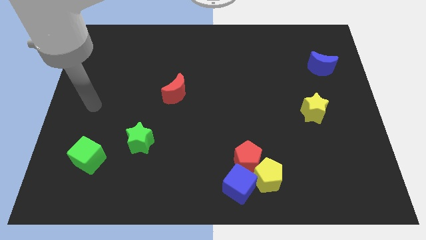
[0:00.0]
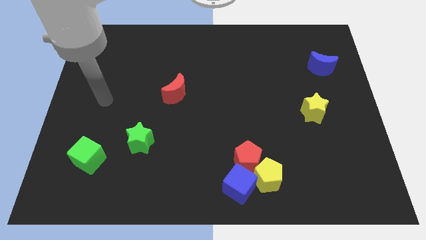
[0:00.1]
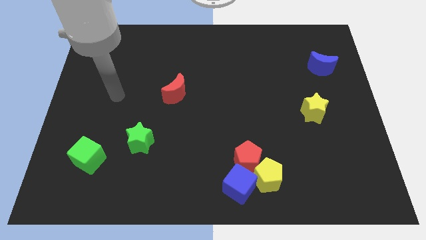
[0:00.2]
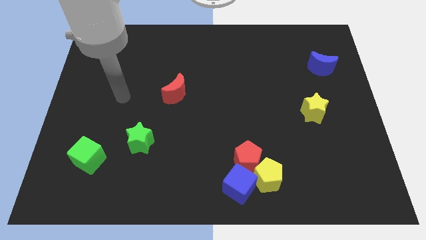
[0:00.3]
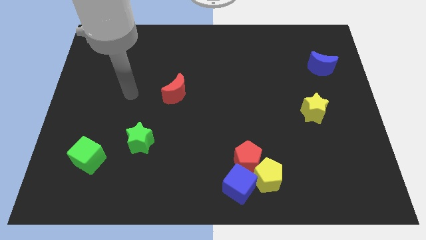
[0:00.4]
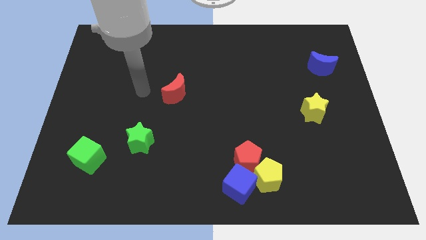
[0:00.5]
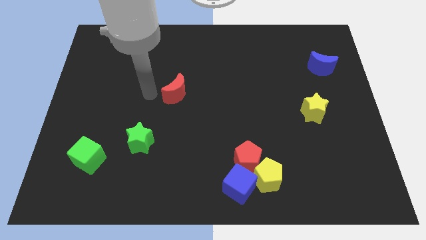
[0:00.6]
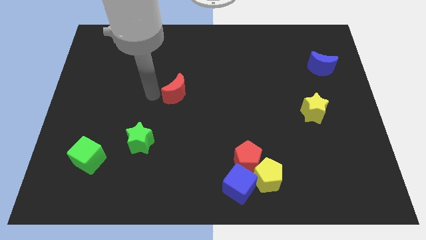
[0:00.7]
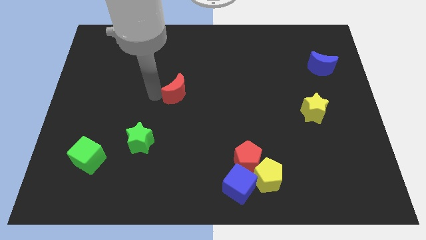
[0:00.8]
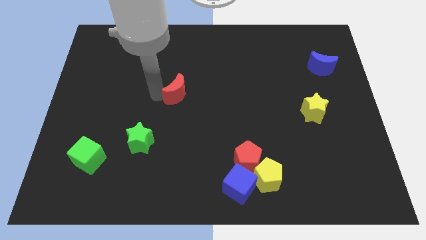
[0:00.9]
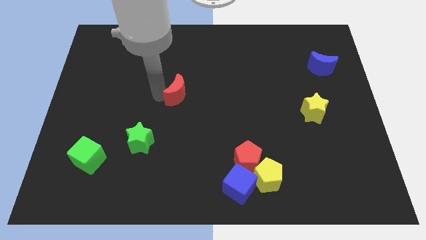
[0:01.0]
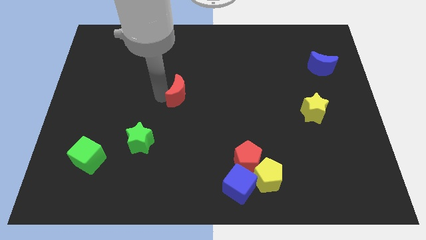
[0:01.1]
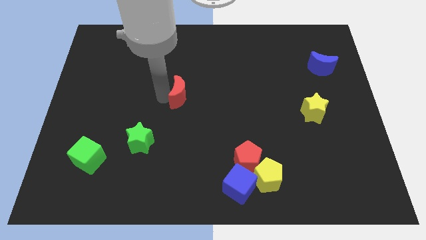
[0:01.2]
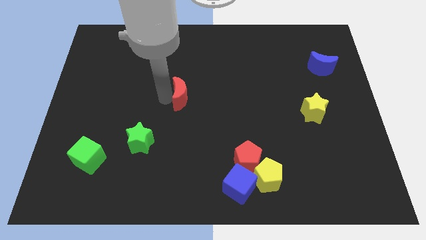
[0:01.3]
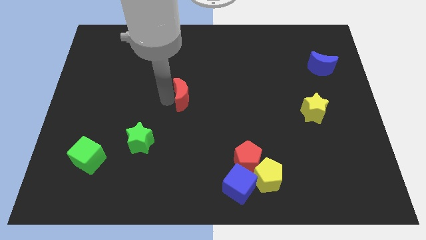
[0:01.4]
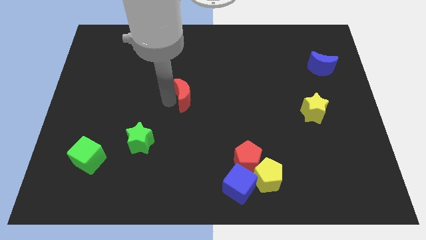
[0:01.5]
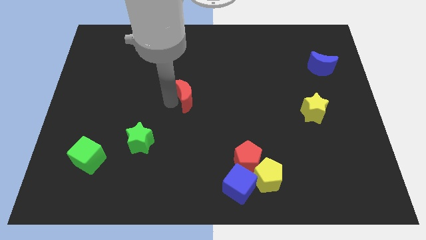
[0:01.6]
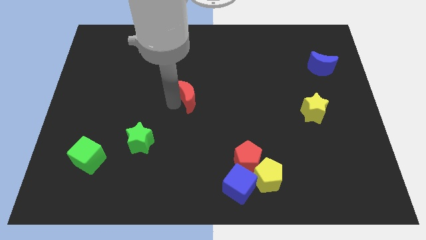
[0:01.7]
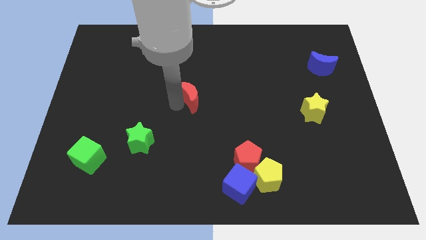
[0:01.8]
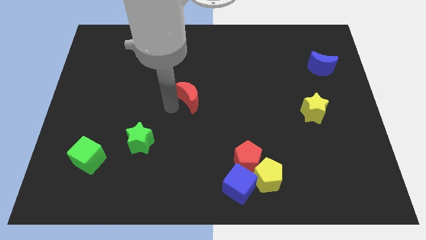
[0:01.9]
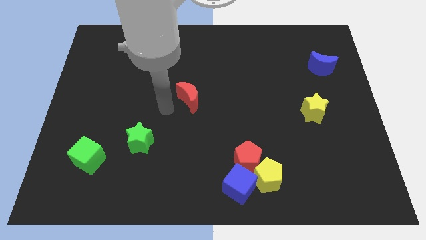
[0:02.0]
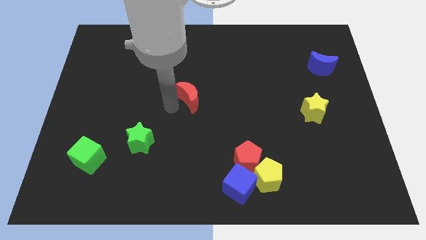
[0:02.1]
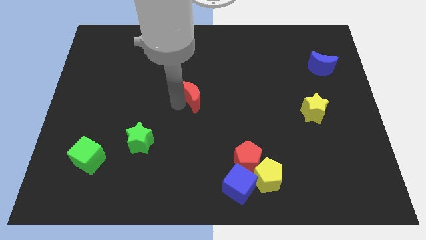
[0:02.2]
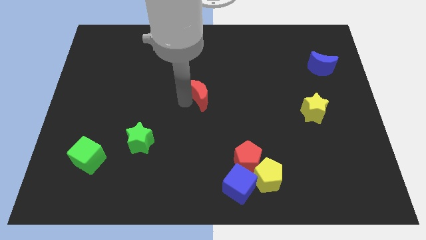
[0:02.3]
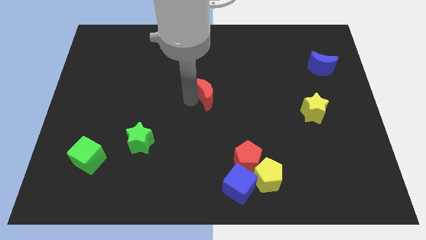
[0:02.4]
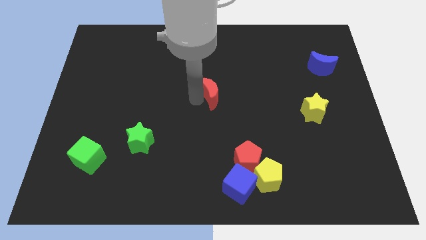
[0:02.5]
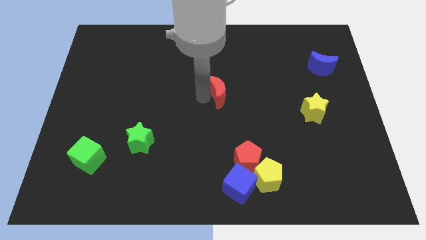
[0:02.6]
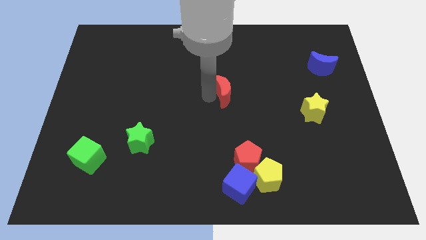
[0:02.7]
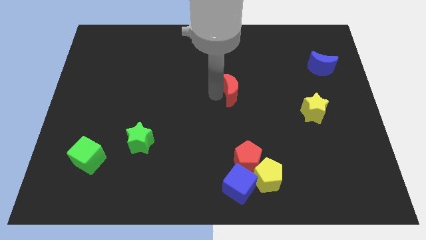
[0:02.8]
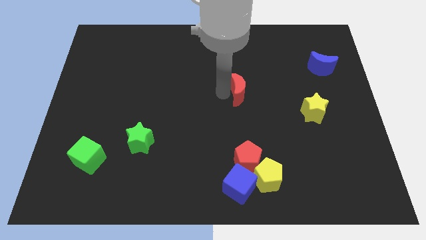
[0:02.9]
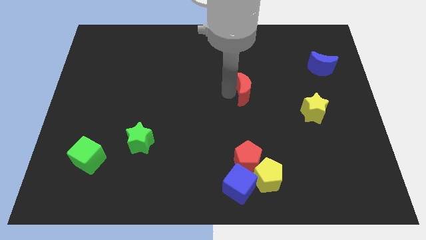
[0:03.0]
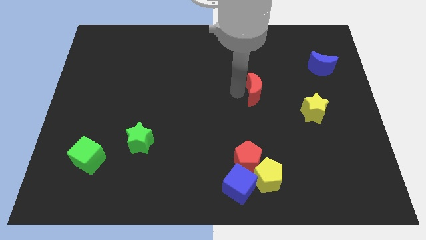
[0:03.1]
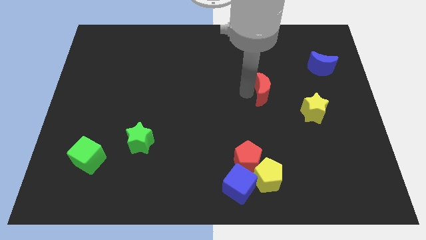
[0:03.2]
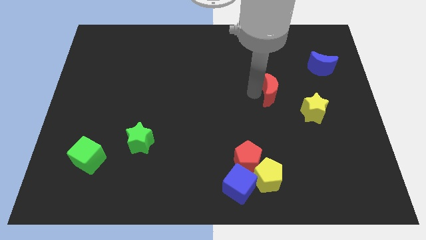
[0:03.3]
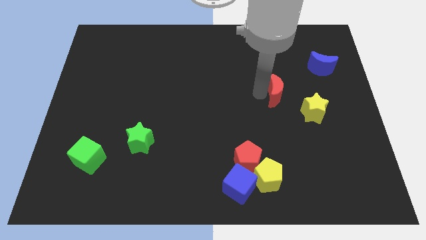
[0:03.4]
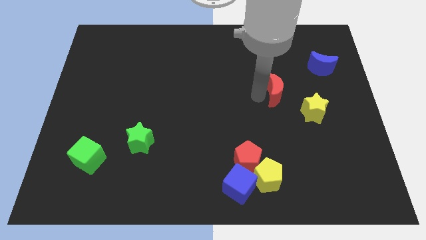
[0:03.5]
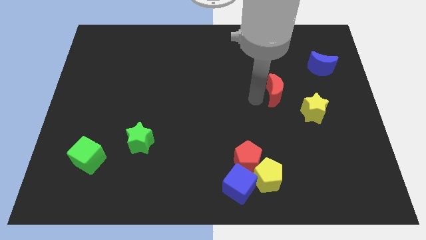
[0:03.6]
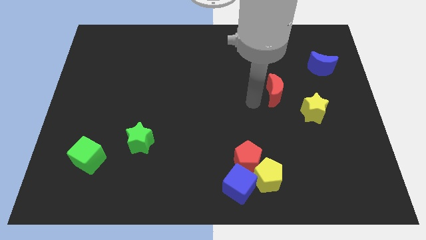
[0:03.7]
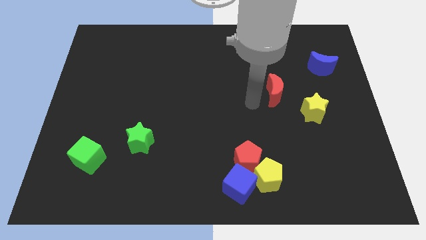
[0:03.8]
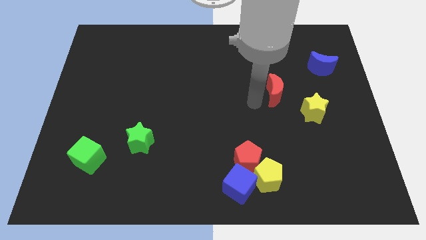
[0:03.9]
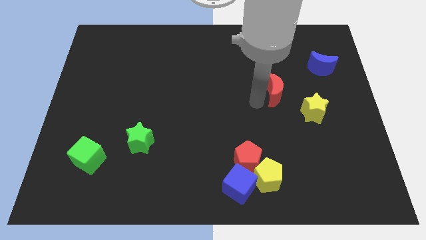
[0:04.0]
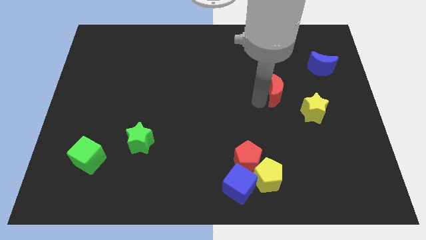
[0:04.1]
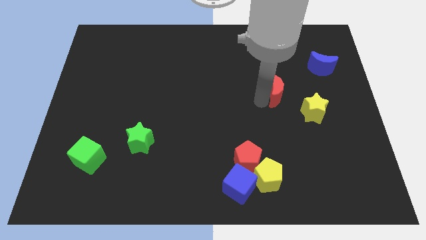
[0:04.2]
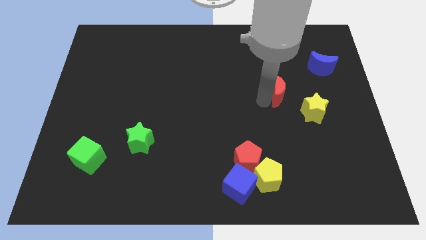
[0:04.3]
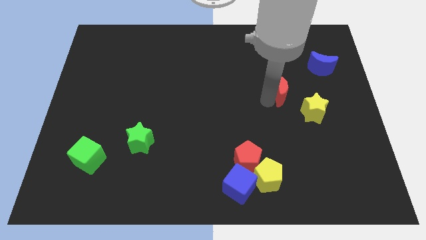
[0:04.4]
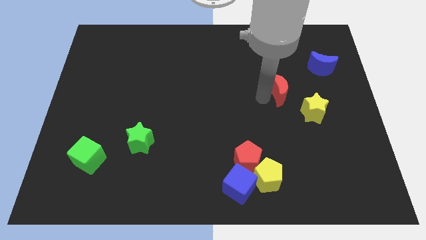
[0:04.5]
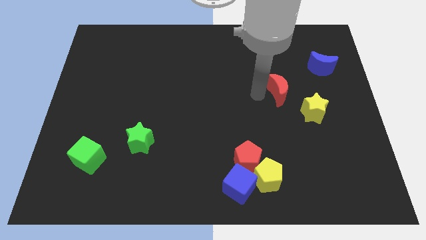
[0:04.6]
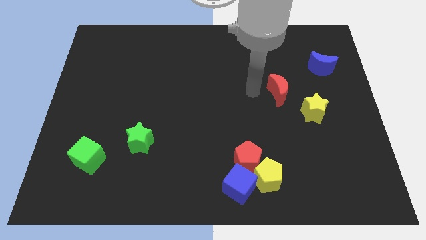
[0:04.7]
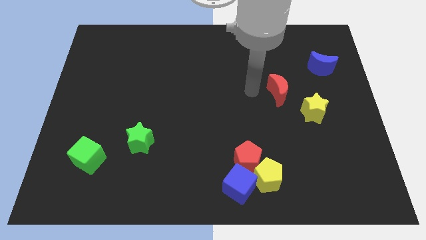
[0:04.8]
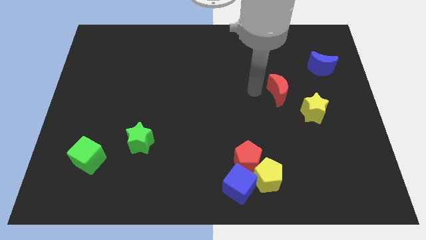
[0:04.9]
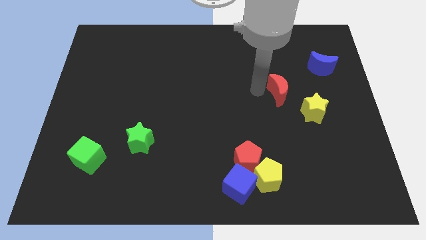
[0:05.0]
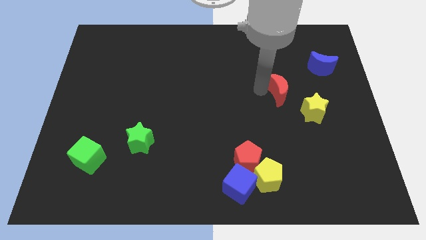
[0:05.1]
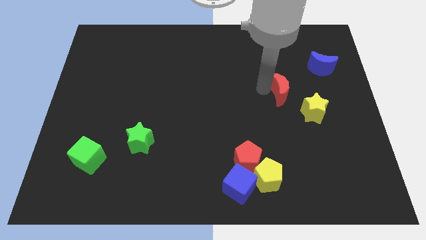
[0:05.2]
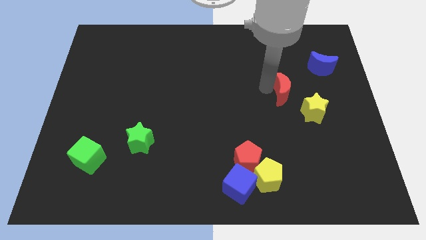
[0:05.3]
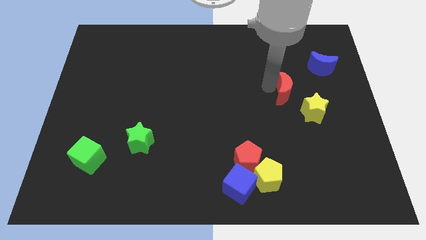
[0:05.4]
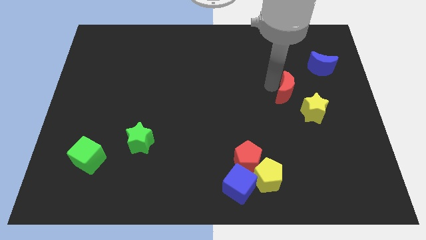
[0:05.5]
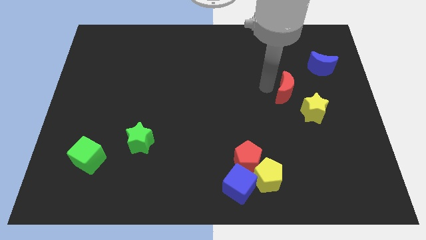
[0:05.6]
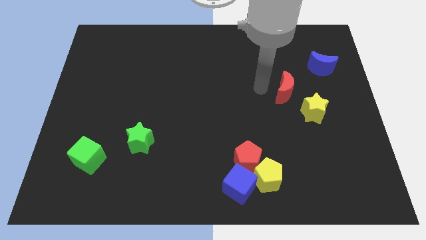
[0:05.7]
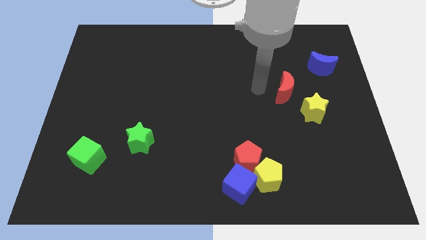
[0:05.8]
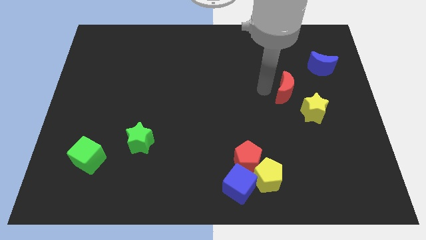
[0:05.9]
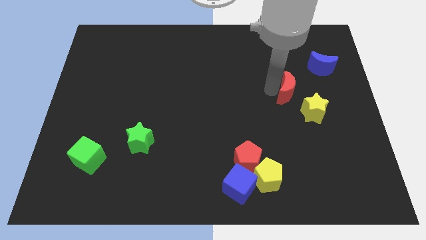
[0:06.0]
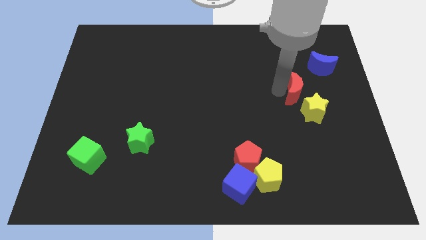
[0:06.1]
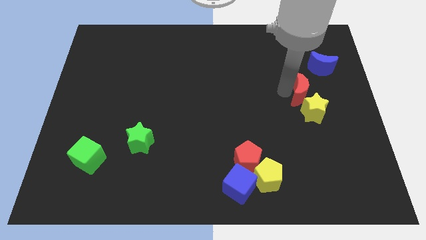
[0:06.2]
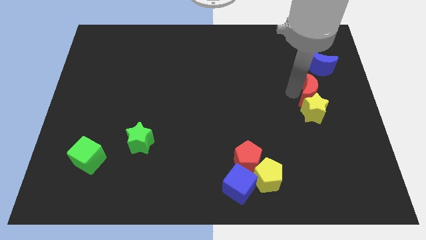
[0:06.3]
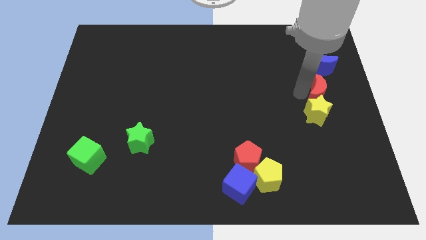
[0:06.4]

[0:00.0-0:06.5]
put the red moon to the right side
